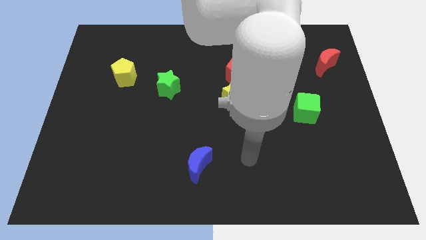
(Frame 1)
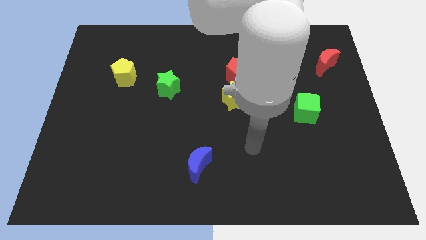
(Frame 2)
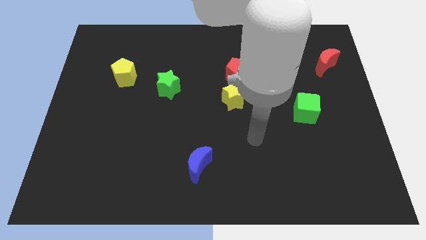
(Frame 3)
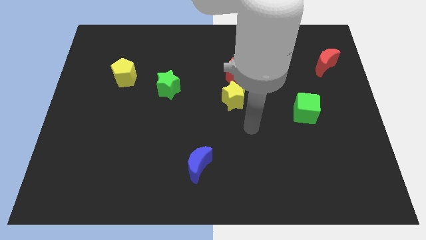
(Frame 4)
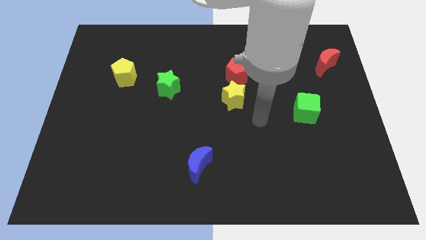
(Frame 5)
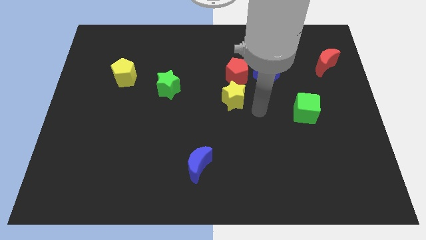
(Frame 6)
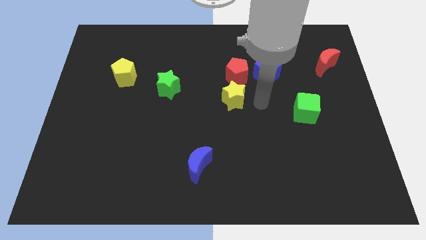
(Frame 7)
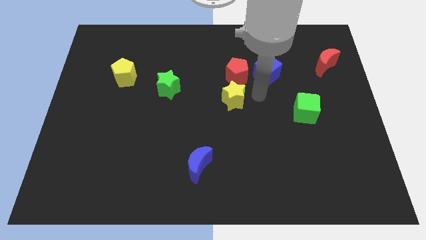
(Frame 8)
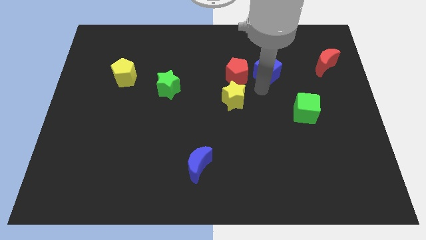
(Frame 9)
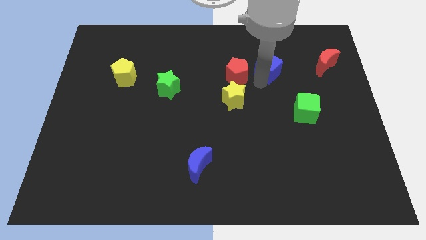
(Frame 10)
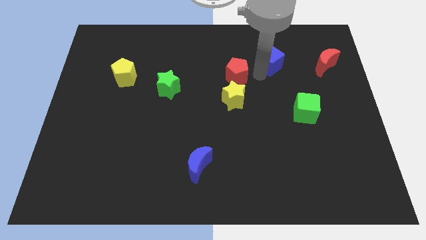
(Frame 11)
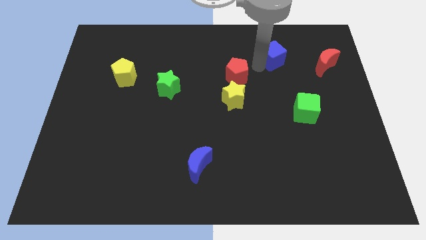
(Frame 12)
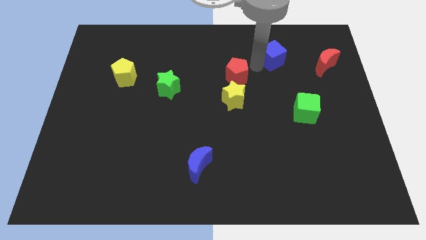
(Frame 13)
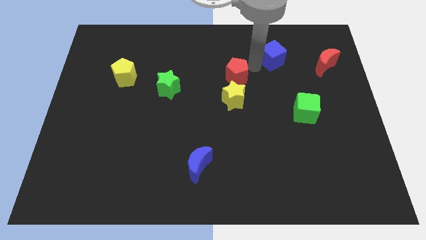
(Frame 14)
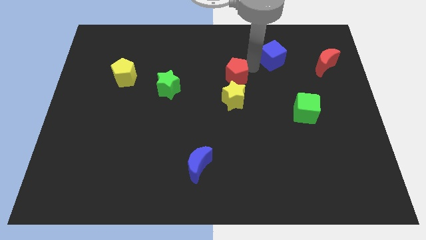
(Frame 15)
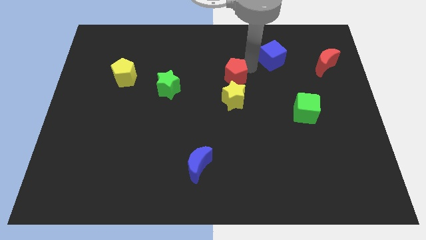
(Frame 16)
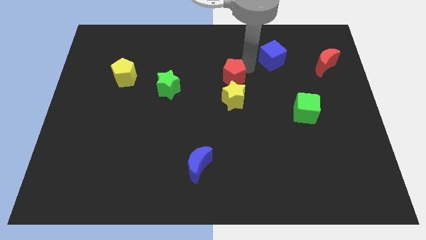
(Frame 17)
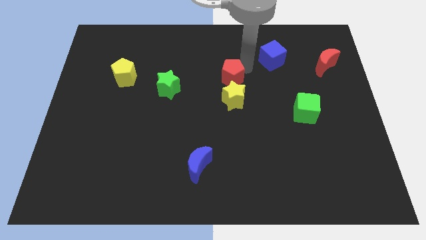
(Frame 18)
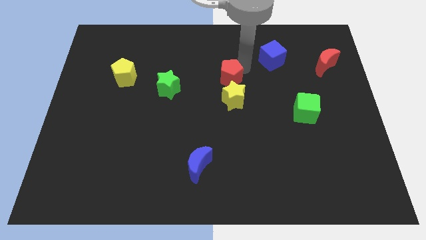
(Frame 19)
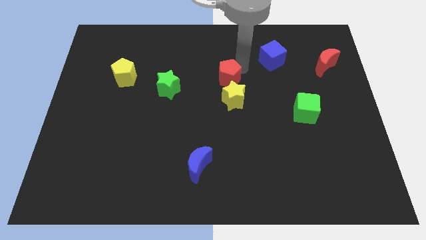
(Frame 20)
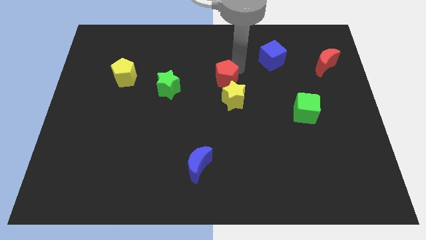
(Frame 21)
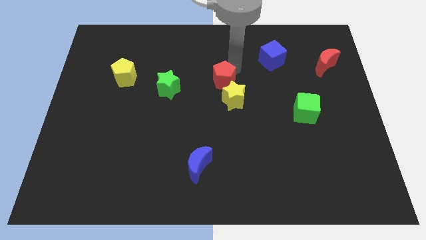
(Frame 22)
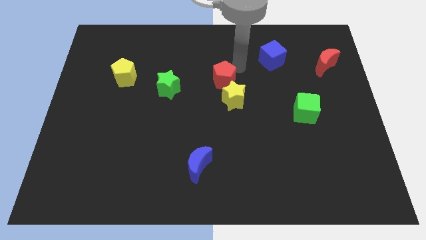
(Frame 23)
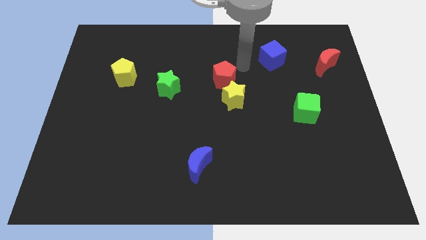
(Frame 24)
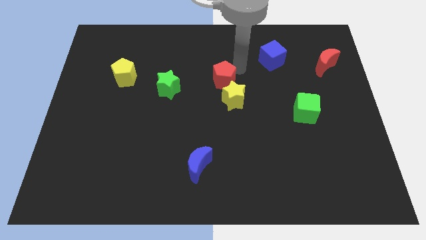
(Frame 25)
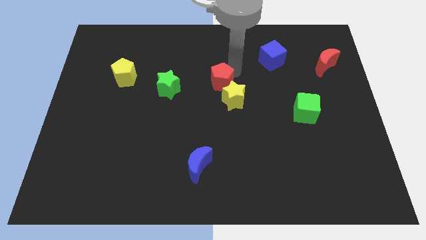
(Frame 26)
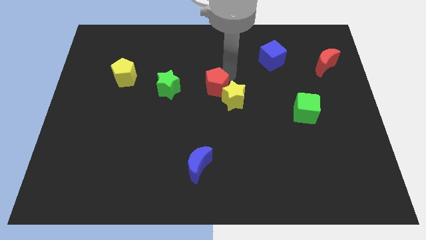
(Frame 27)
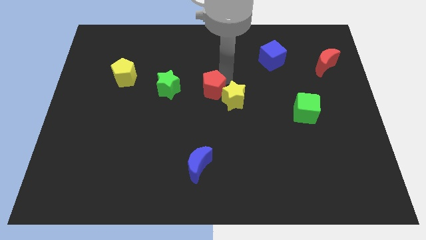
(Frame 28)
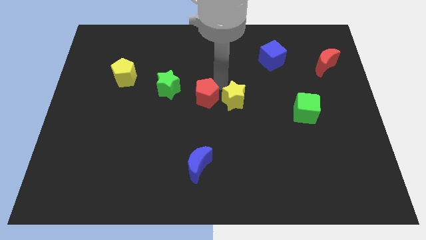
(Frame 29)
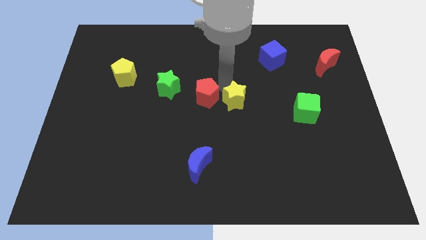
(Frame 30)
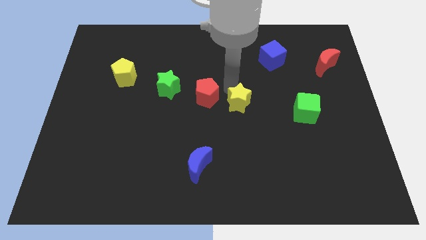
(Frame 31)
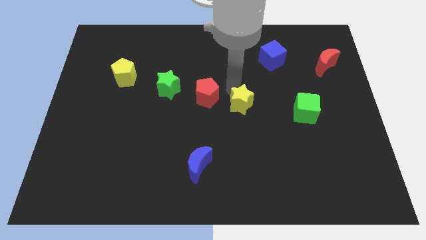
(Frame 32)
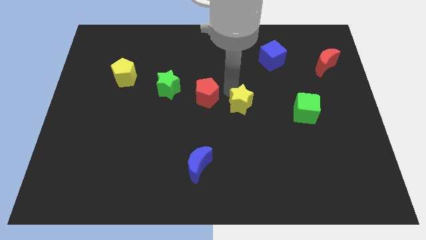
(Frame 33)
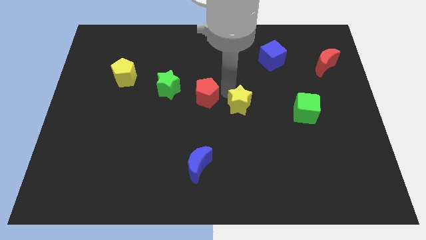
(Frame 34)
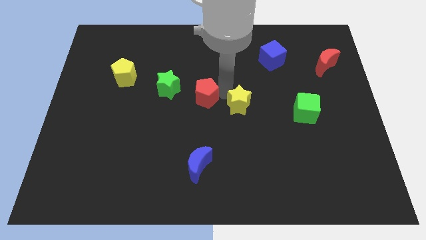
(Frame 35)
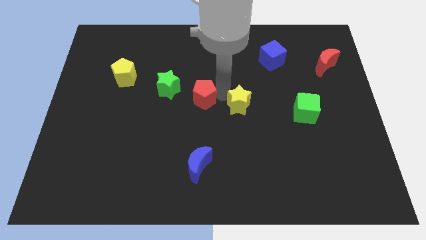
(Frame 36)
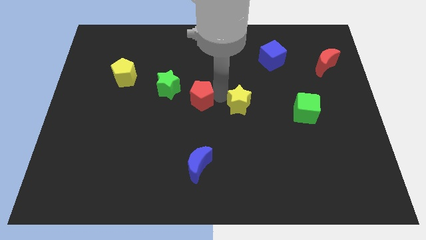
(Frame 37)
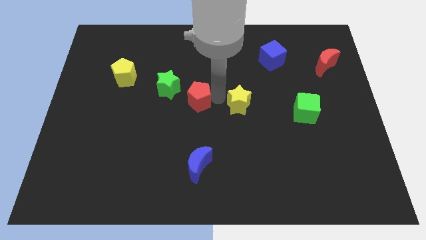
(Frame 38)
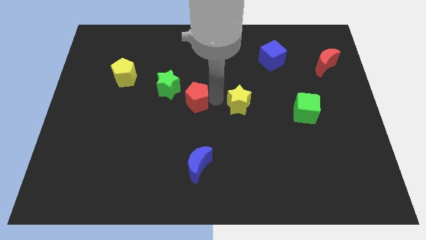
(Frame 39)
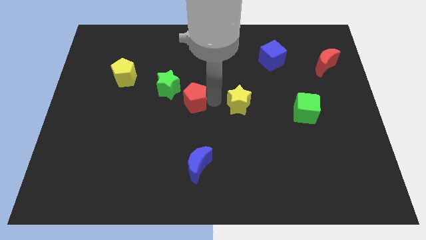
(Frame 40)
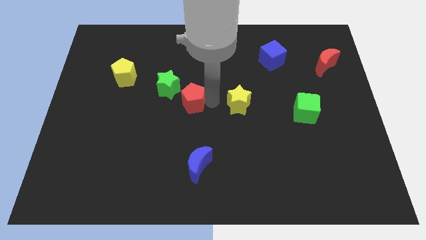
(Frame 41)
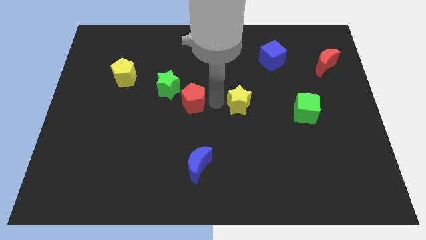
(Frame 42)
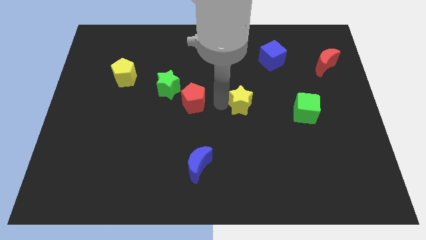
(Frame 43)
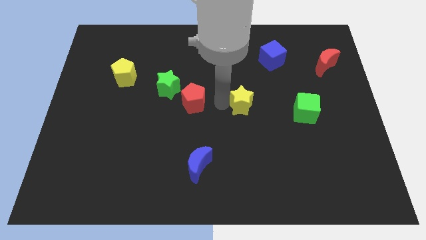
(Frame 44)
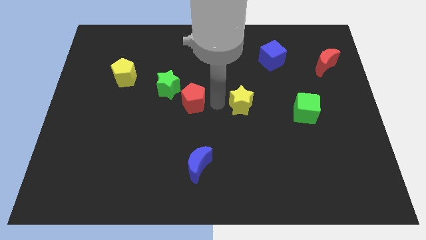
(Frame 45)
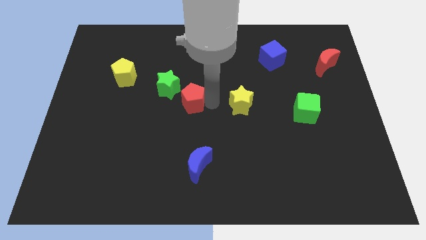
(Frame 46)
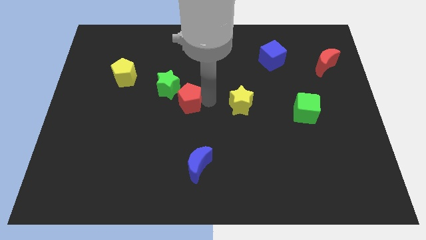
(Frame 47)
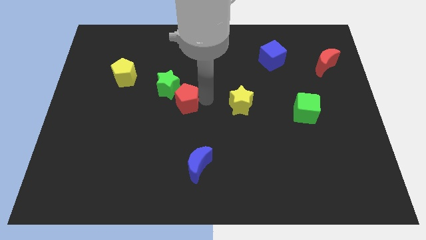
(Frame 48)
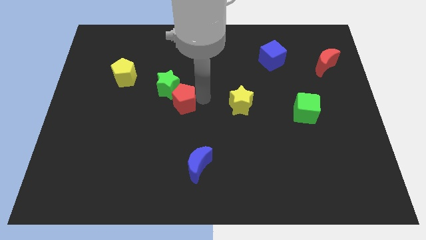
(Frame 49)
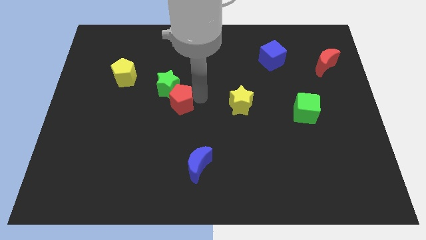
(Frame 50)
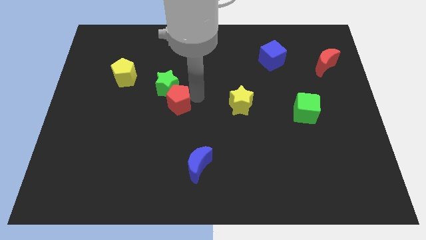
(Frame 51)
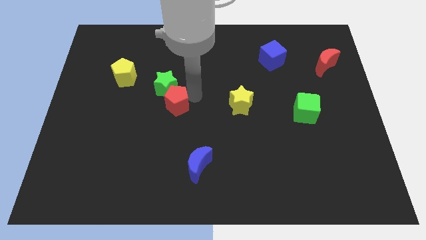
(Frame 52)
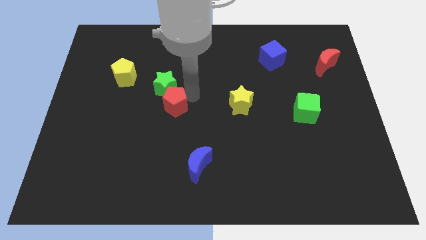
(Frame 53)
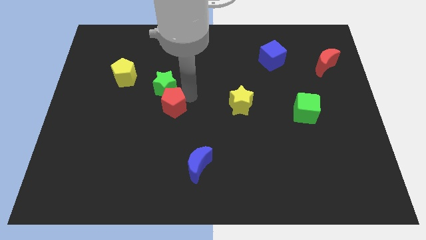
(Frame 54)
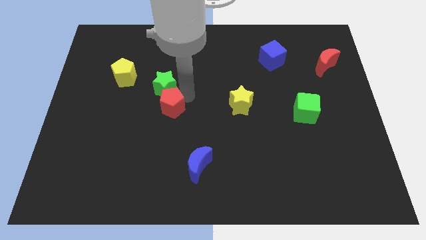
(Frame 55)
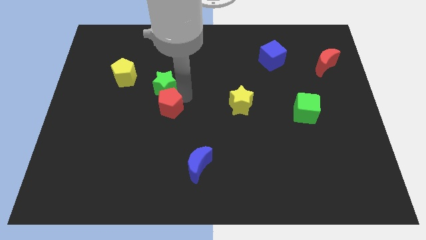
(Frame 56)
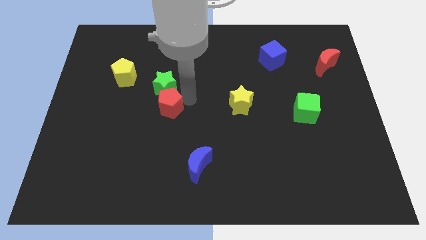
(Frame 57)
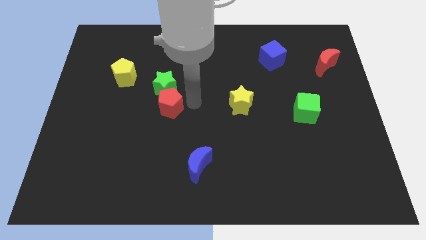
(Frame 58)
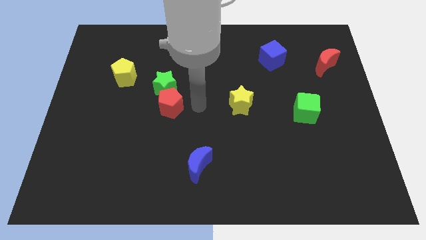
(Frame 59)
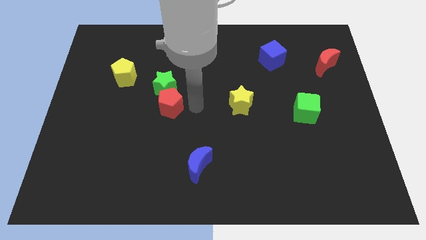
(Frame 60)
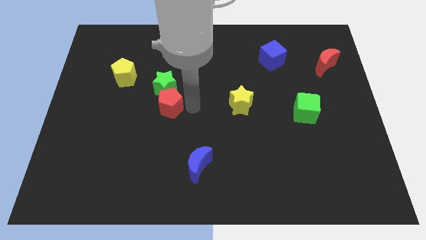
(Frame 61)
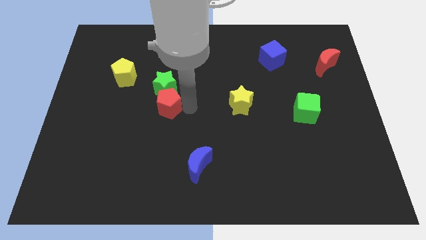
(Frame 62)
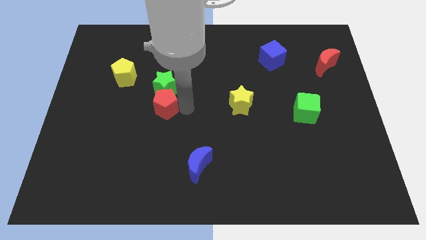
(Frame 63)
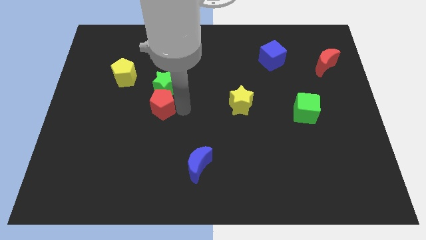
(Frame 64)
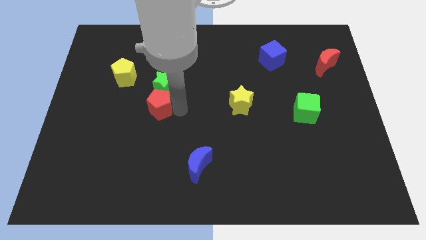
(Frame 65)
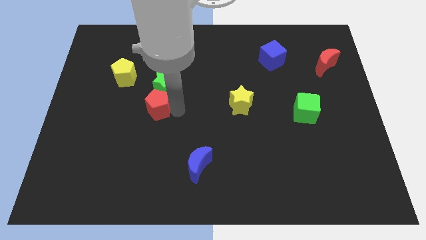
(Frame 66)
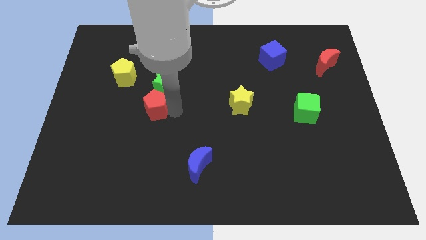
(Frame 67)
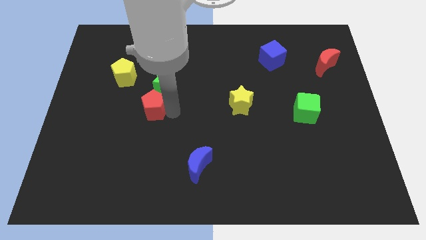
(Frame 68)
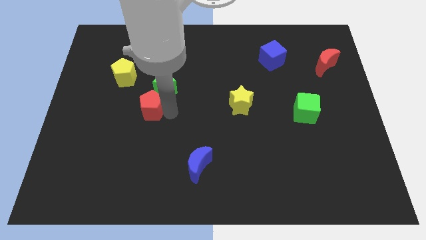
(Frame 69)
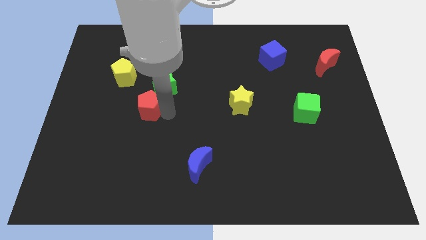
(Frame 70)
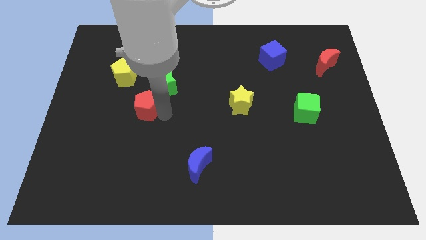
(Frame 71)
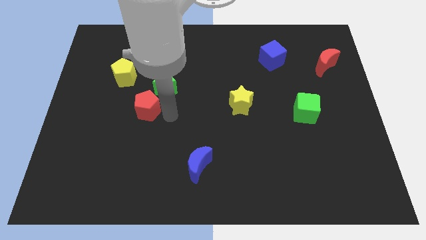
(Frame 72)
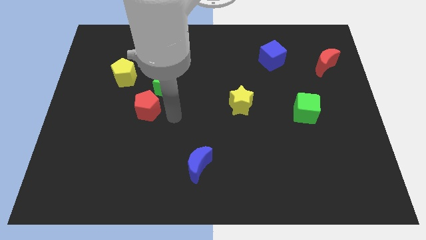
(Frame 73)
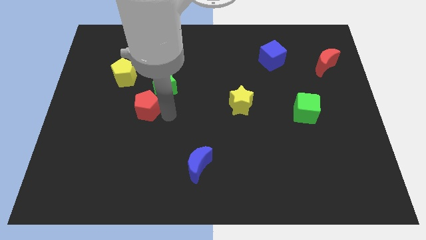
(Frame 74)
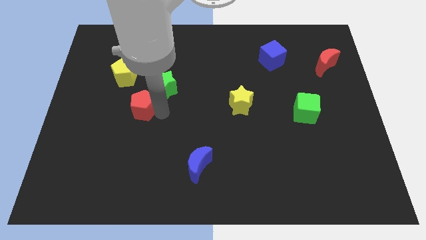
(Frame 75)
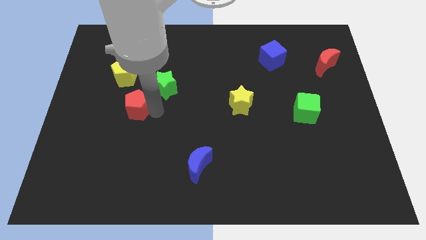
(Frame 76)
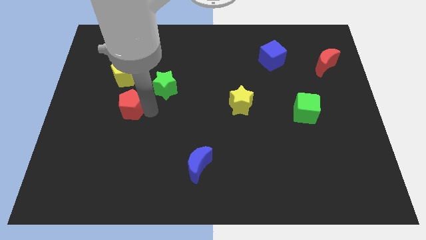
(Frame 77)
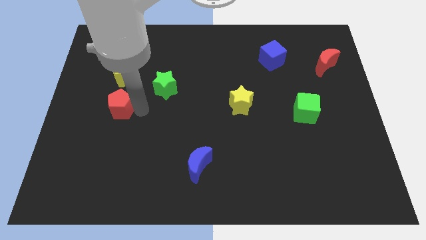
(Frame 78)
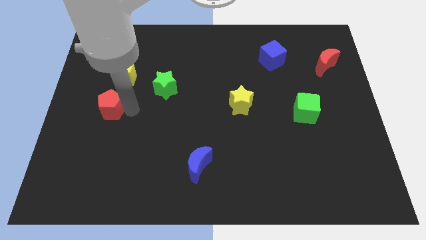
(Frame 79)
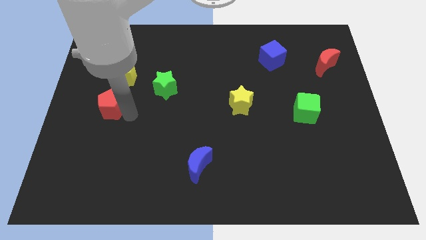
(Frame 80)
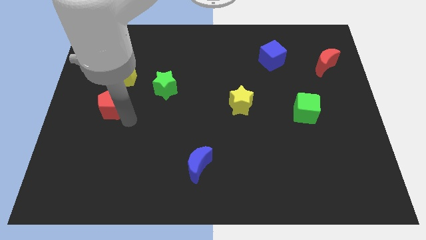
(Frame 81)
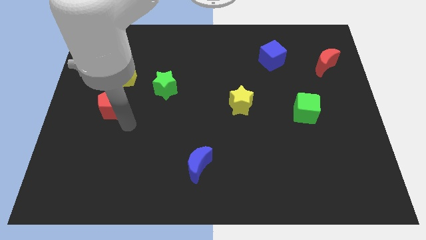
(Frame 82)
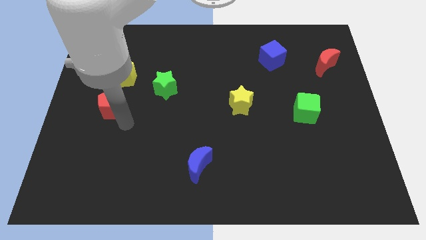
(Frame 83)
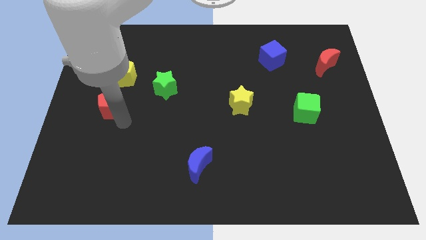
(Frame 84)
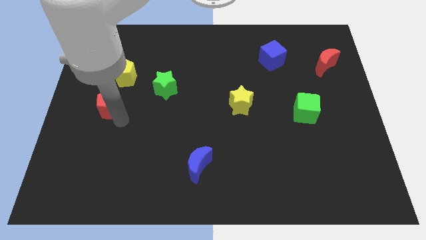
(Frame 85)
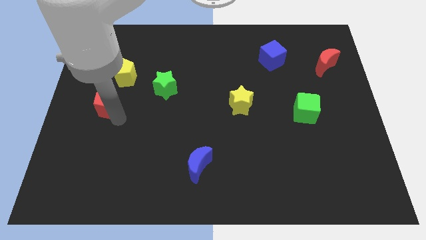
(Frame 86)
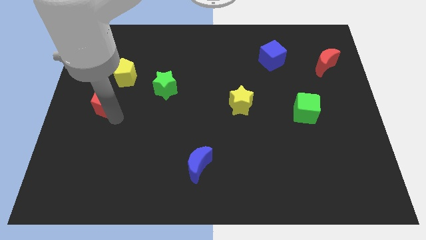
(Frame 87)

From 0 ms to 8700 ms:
push the red pentagon diagonally down and to the left of the yellow pentagon
